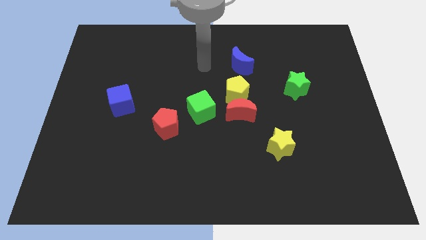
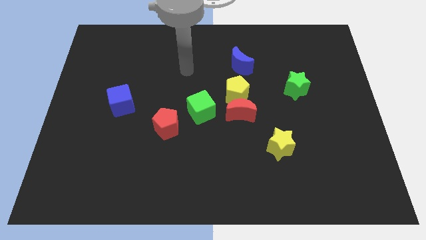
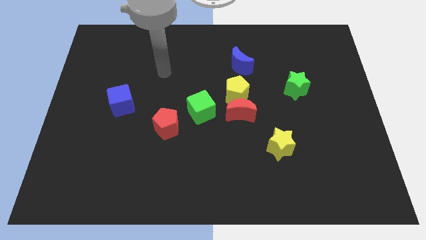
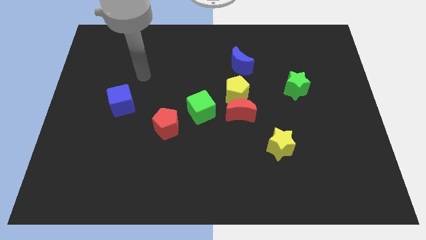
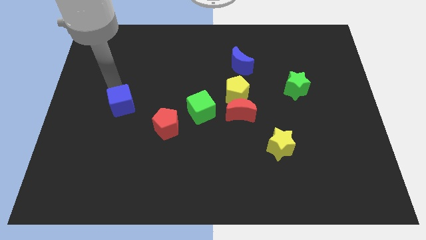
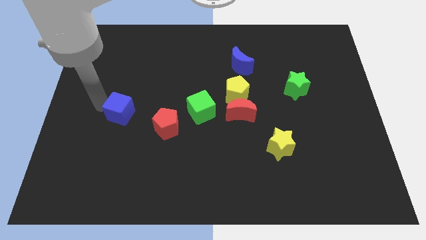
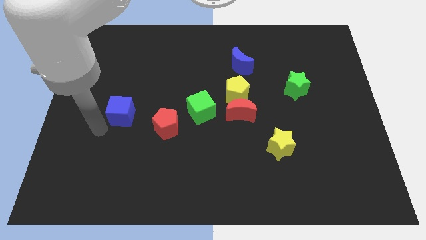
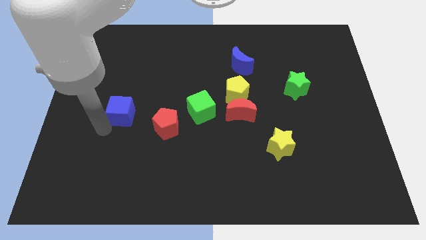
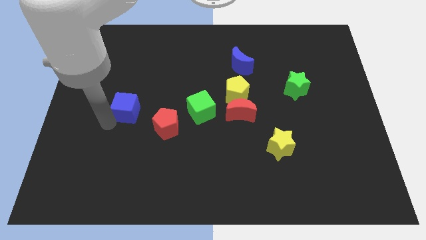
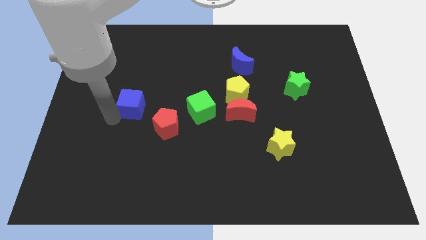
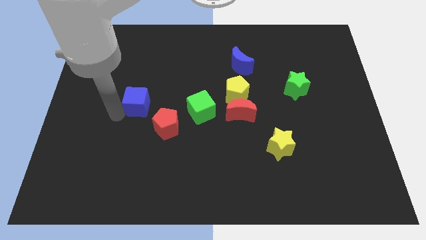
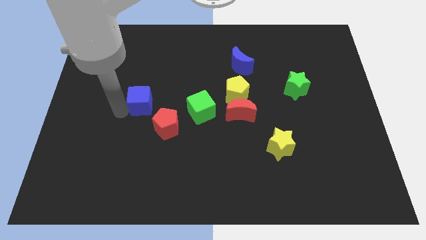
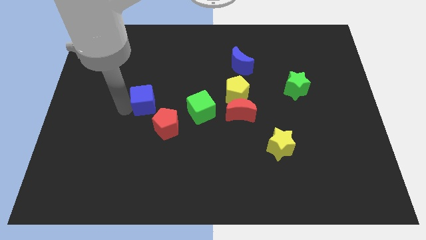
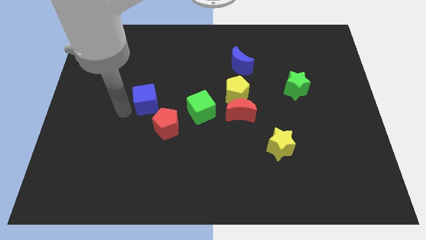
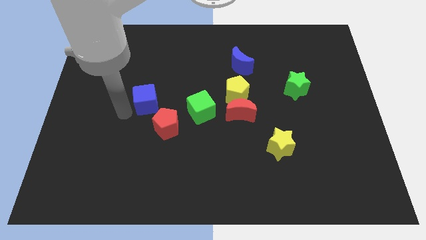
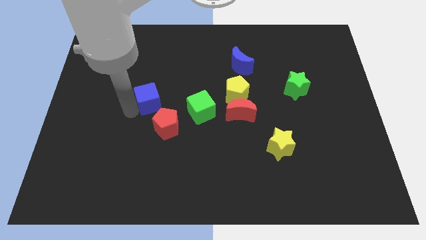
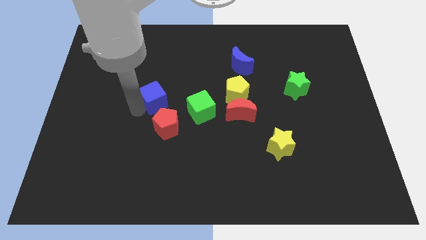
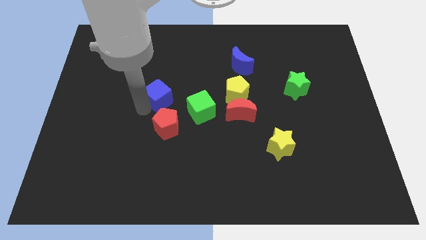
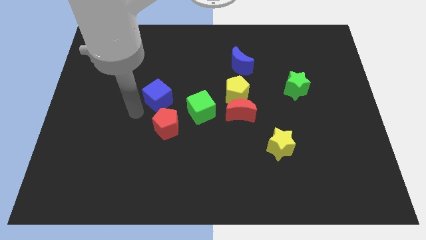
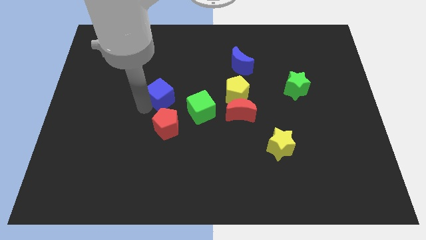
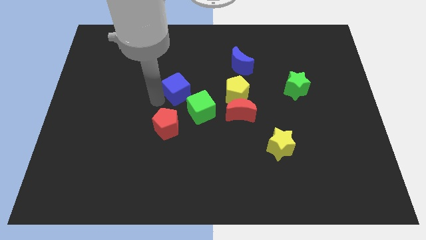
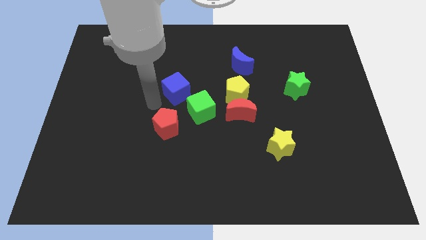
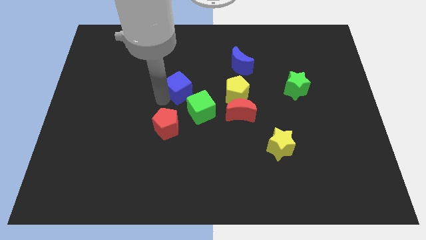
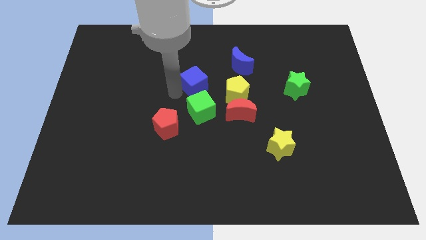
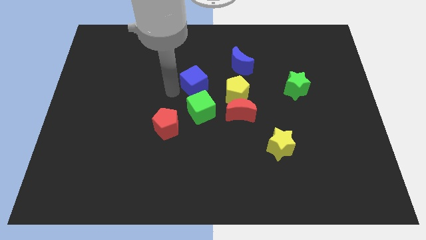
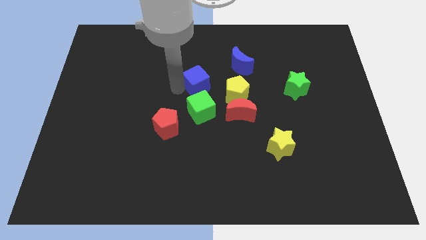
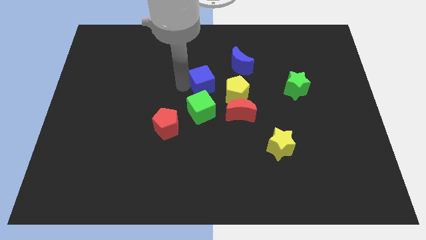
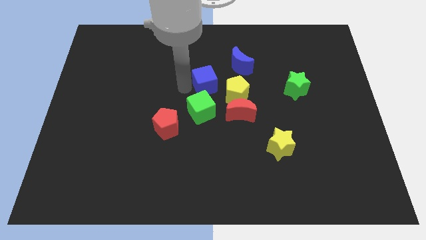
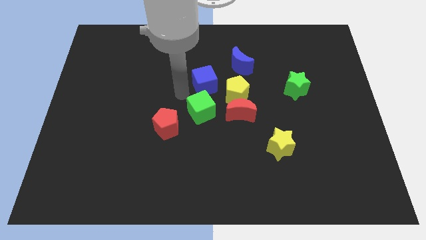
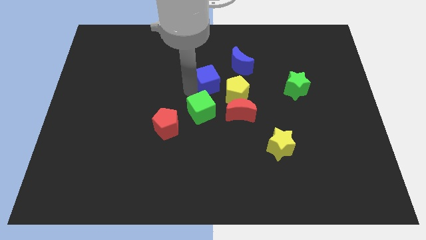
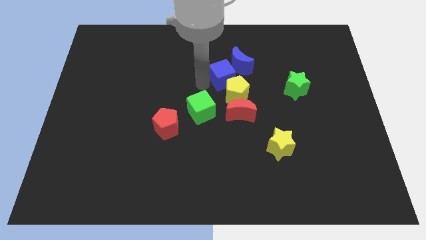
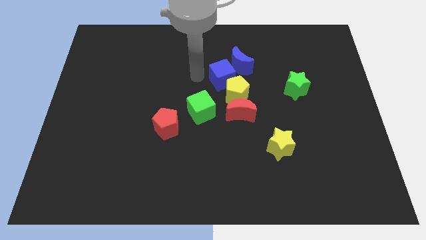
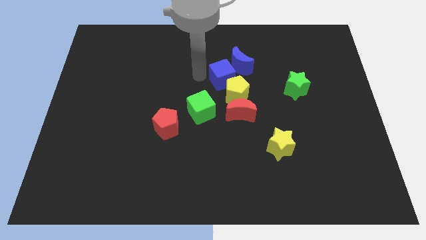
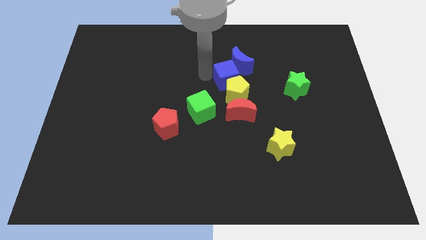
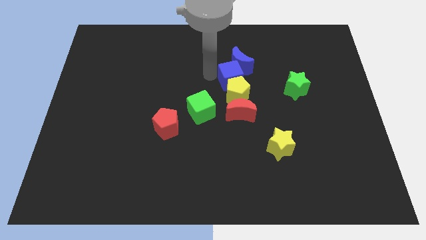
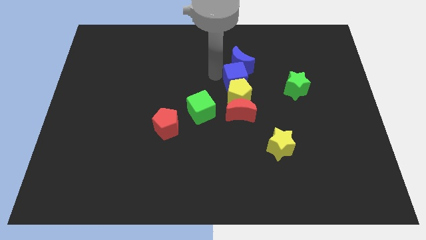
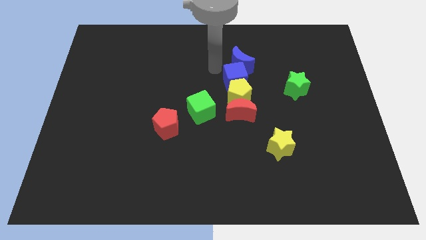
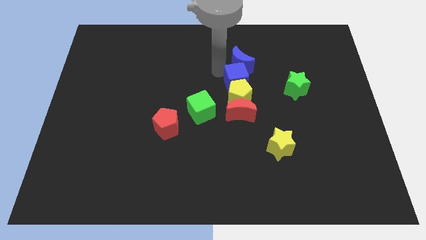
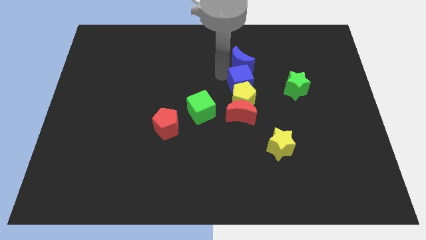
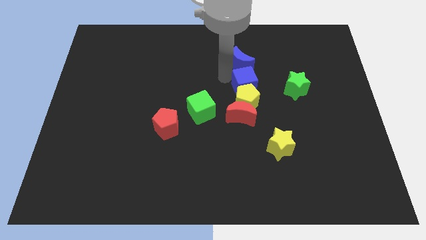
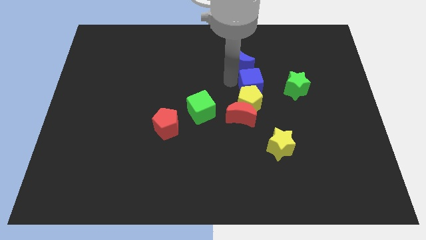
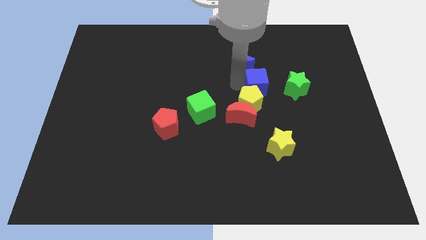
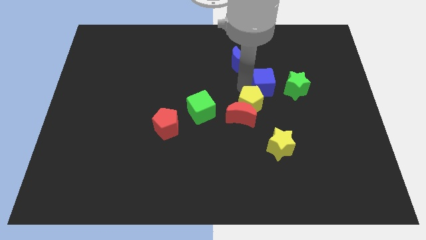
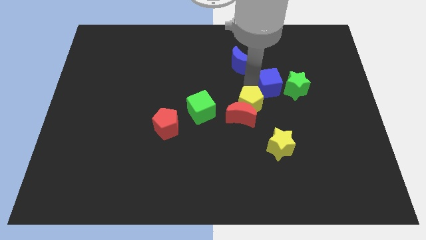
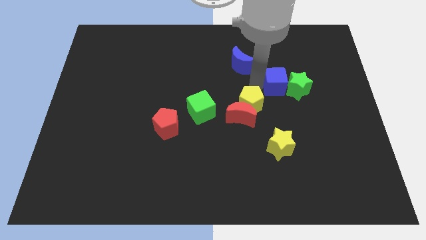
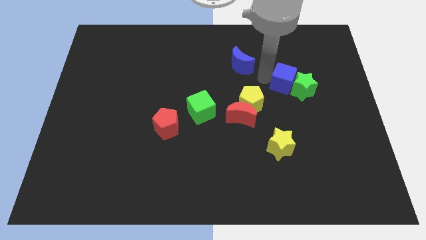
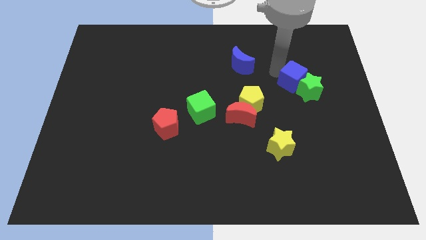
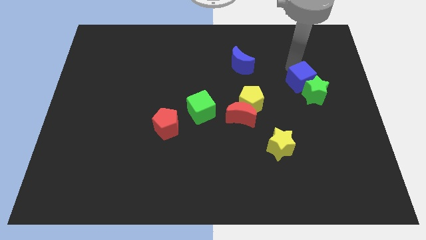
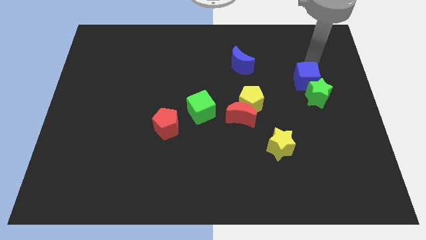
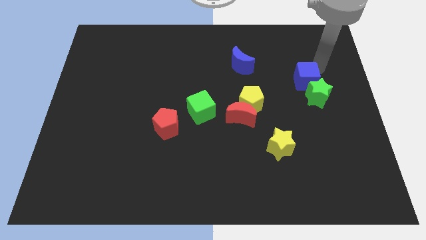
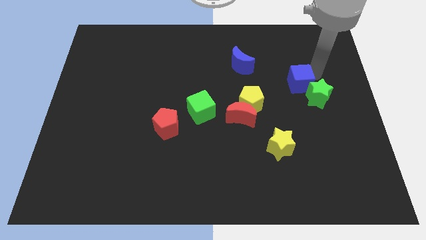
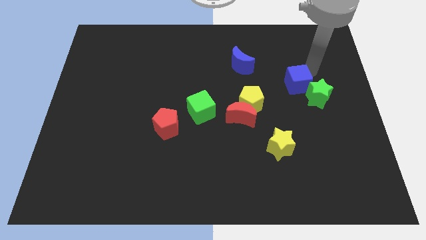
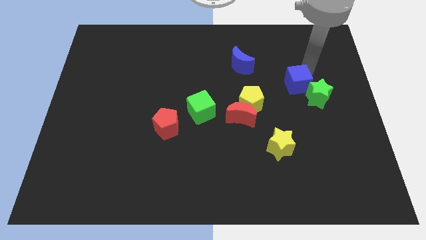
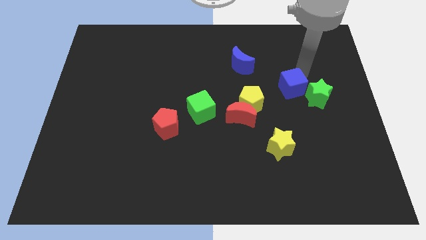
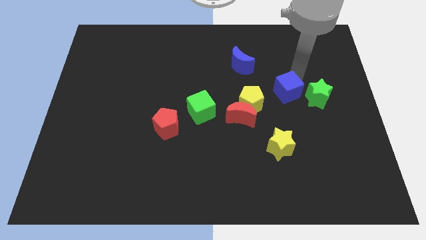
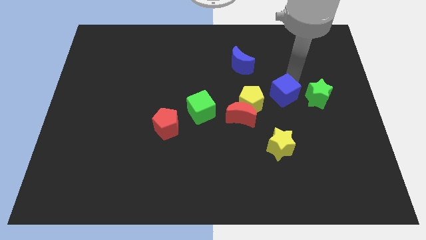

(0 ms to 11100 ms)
slide the blue cube to the top of the yellow star

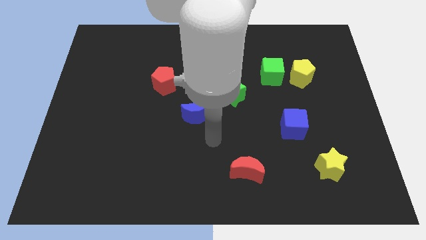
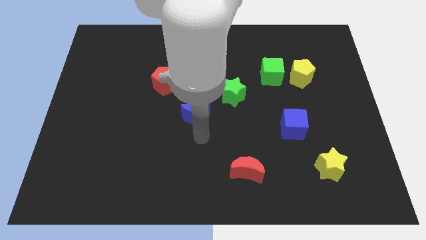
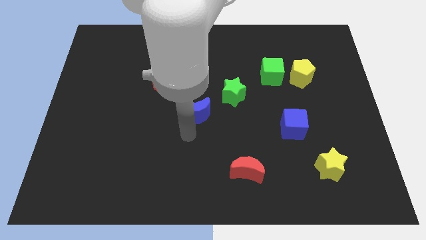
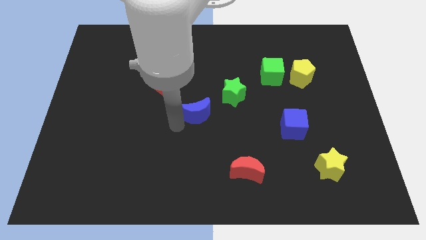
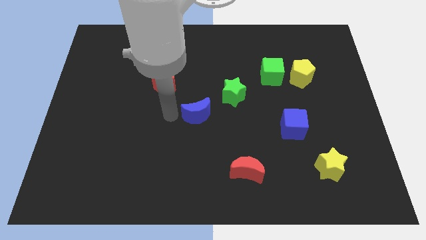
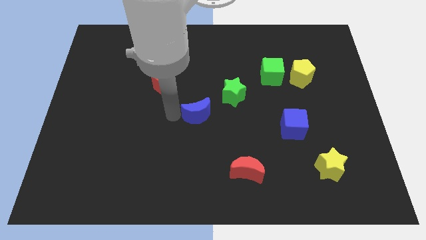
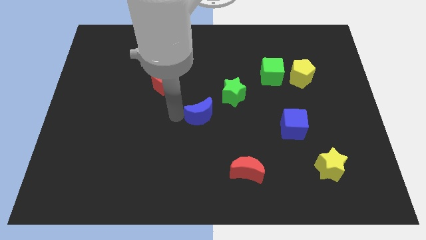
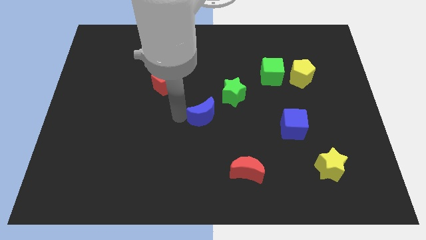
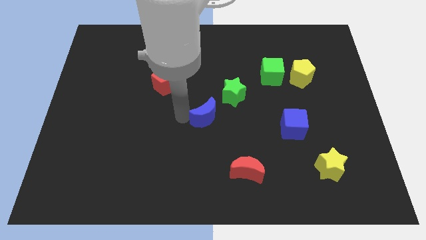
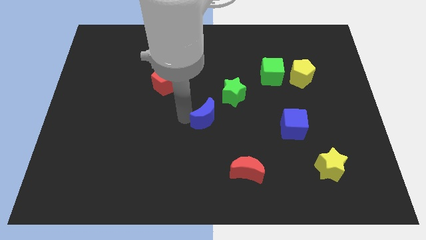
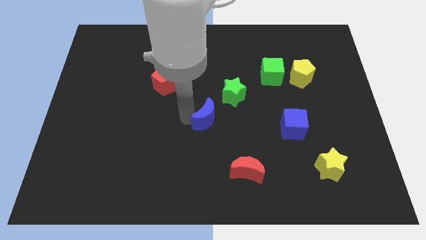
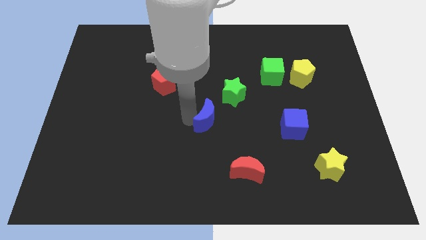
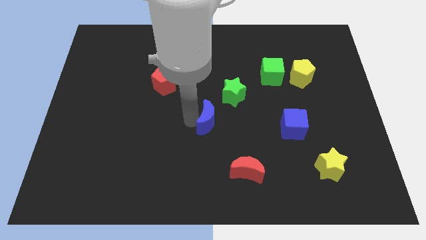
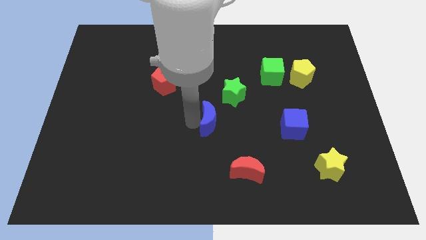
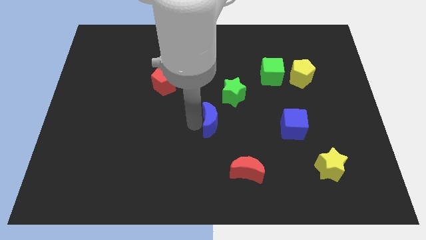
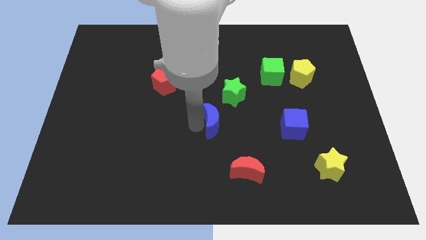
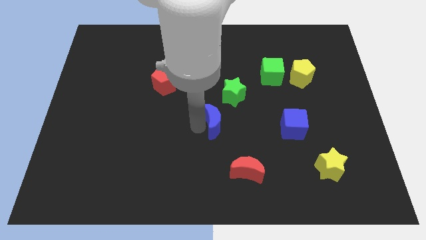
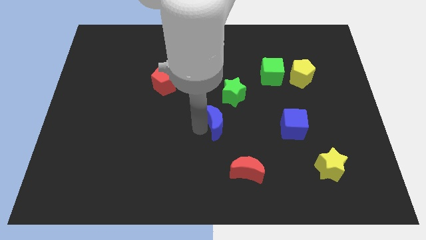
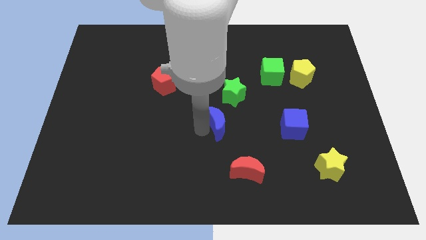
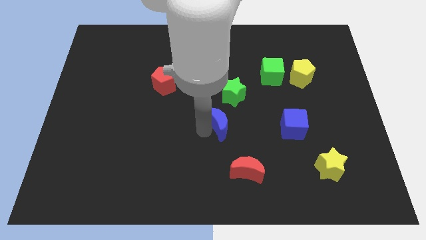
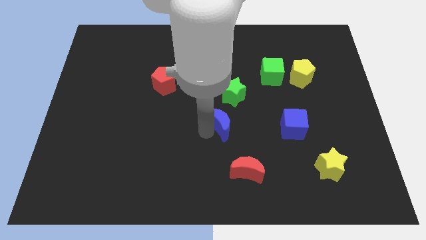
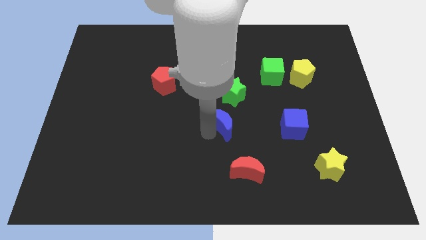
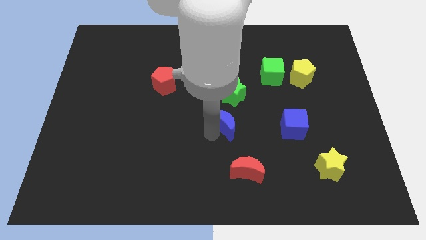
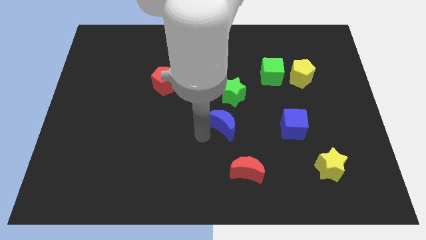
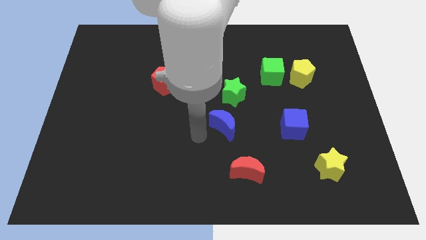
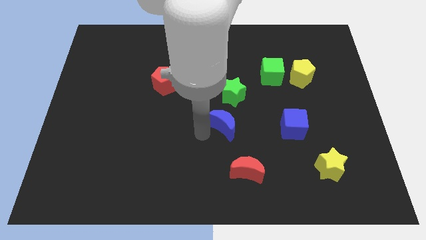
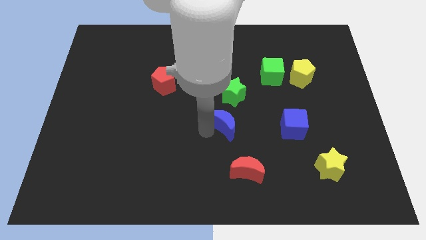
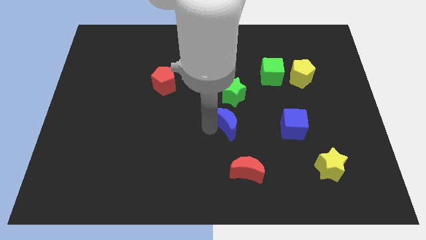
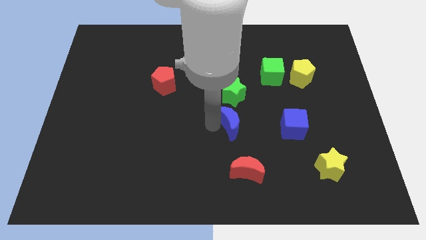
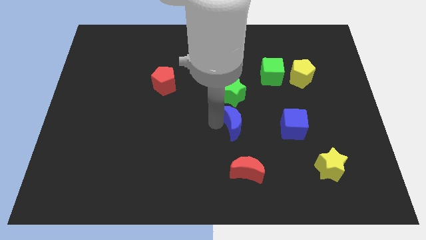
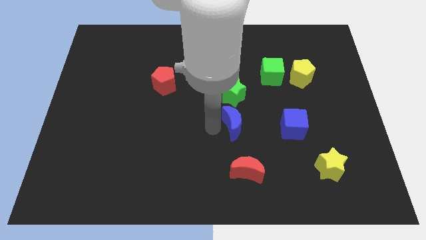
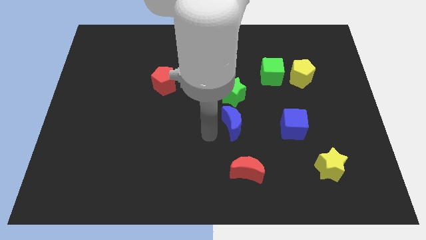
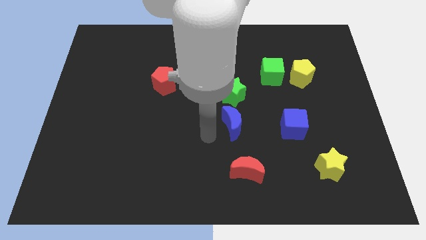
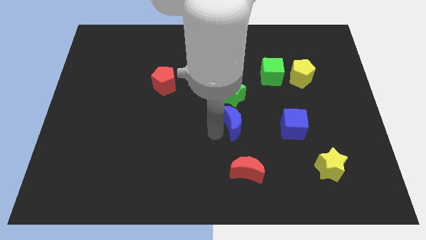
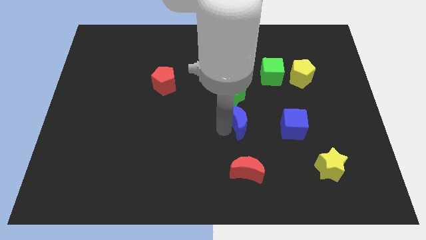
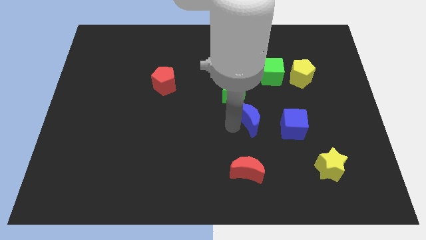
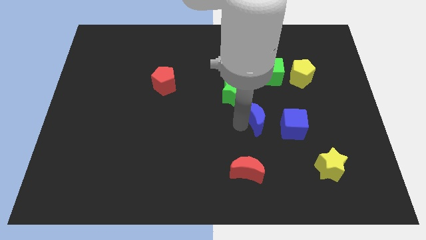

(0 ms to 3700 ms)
put the blue moon to the top left side of the blue cube
